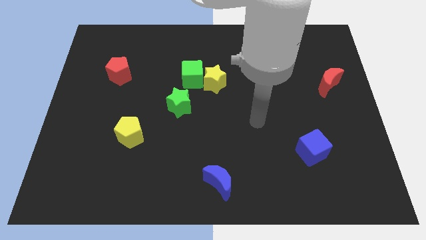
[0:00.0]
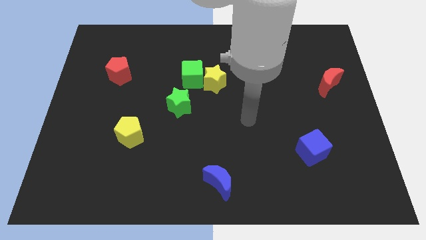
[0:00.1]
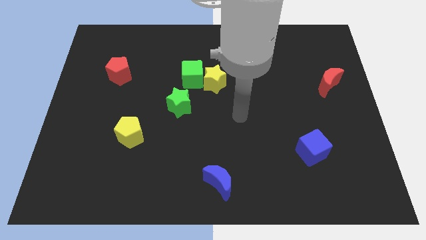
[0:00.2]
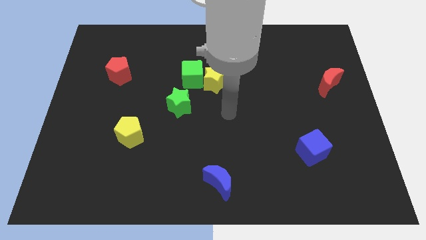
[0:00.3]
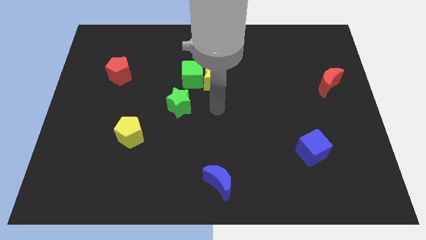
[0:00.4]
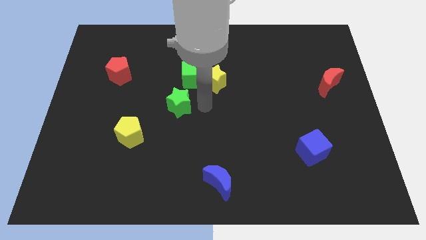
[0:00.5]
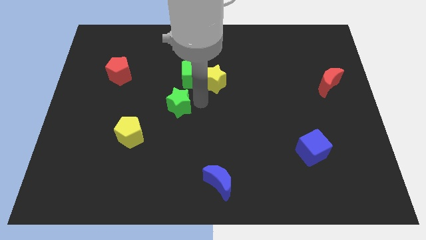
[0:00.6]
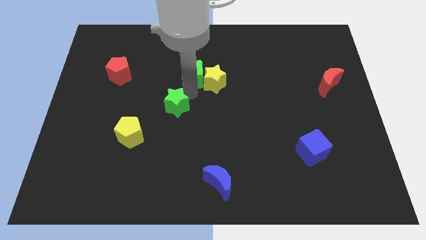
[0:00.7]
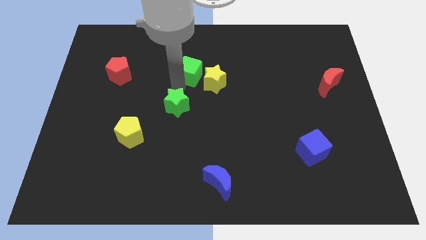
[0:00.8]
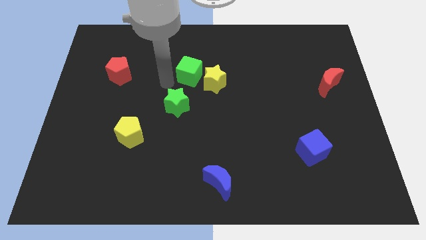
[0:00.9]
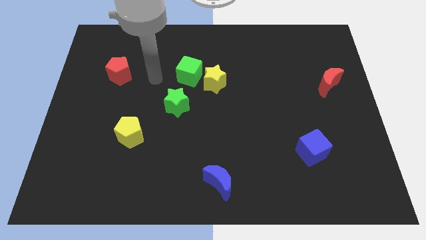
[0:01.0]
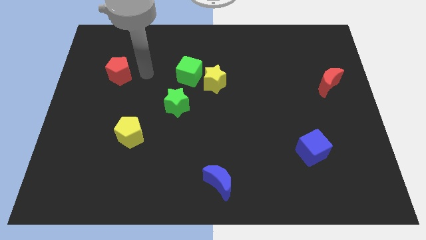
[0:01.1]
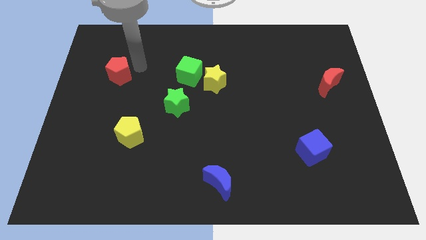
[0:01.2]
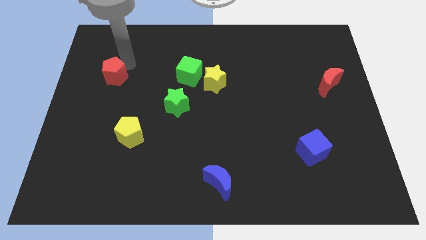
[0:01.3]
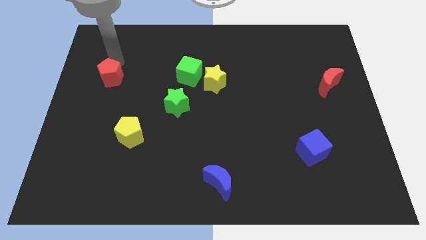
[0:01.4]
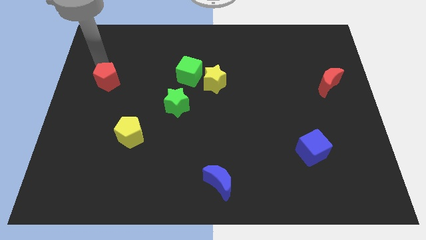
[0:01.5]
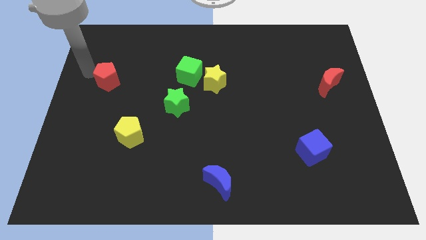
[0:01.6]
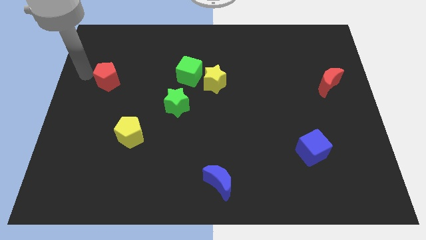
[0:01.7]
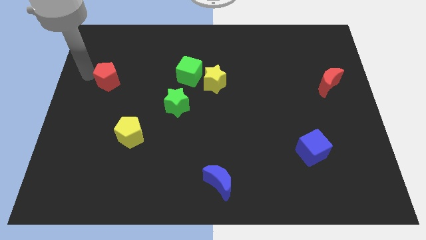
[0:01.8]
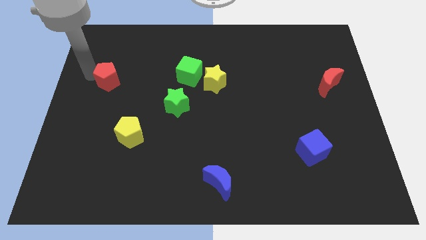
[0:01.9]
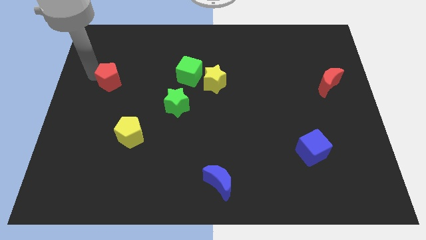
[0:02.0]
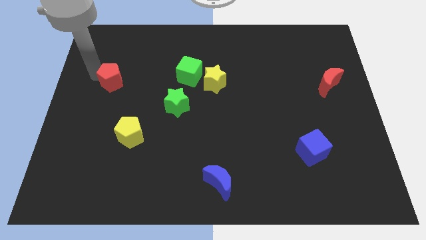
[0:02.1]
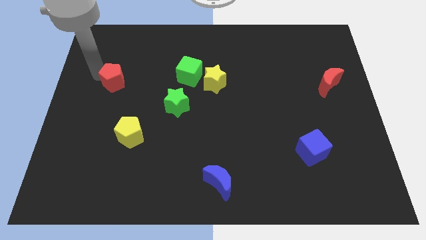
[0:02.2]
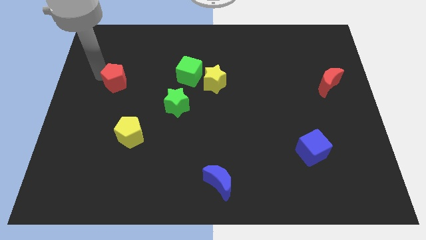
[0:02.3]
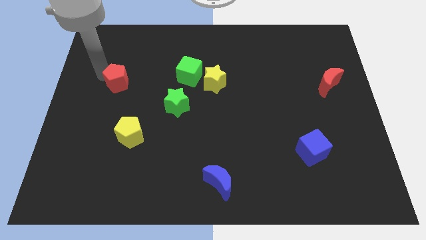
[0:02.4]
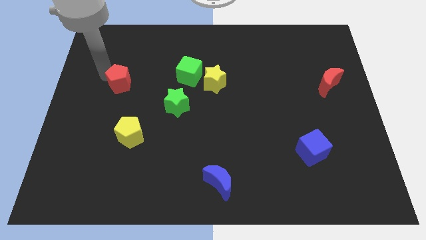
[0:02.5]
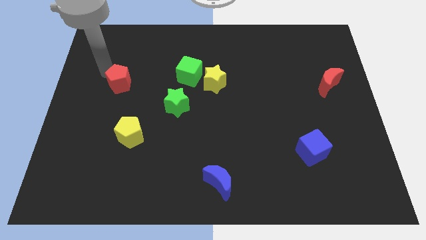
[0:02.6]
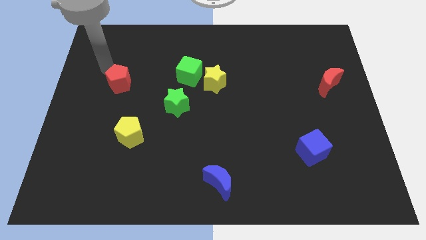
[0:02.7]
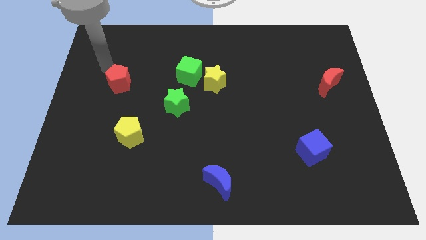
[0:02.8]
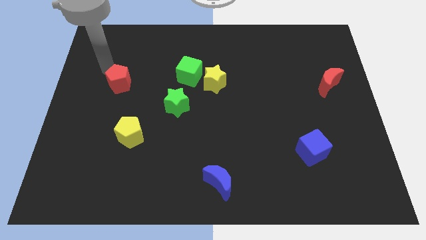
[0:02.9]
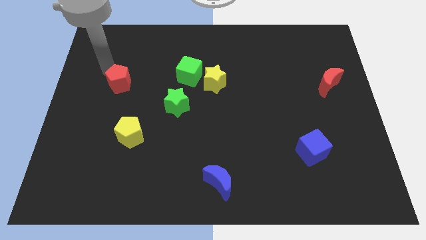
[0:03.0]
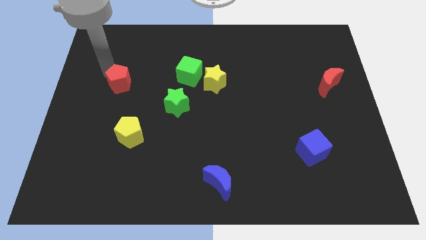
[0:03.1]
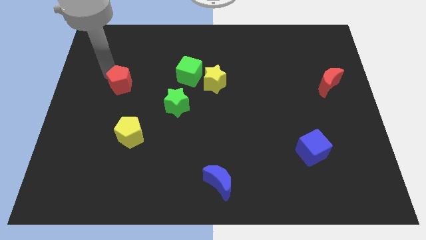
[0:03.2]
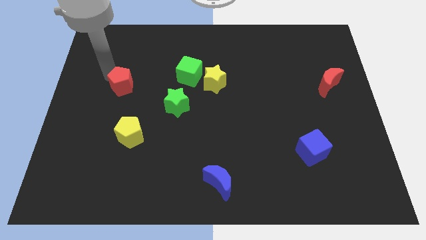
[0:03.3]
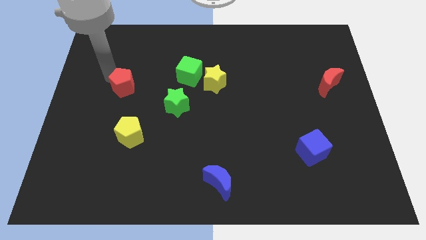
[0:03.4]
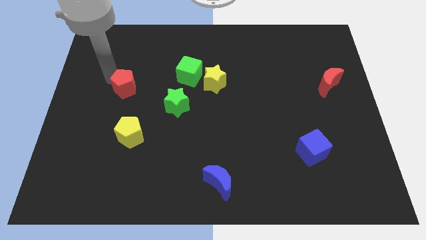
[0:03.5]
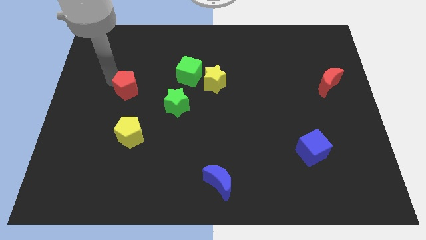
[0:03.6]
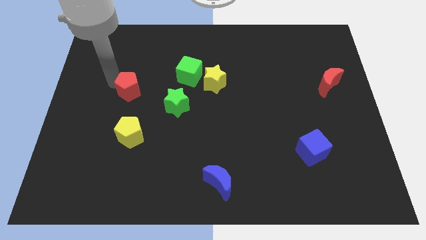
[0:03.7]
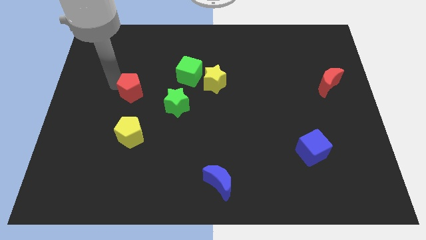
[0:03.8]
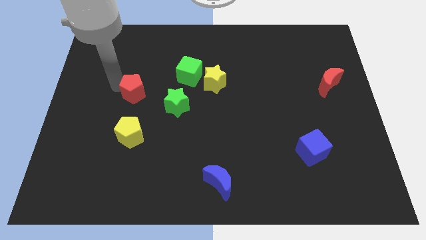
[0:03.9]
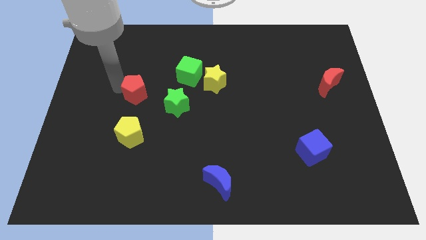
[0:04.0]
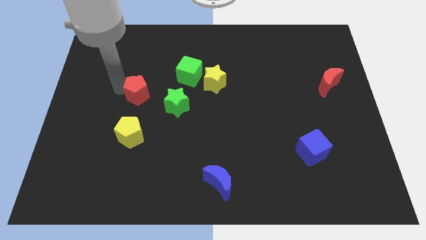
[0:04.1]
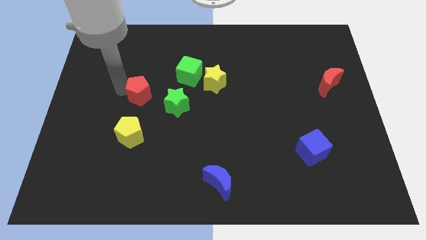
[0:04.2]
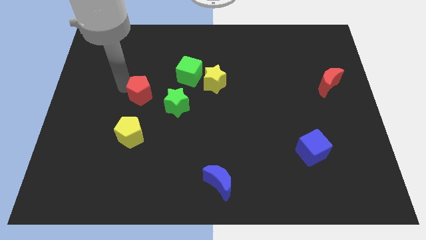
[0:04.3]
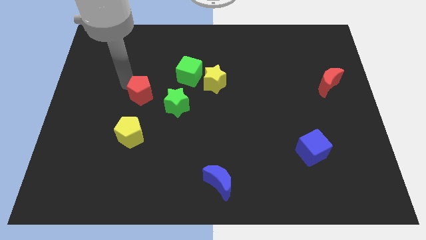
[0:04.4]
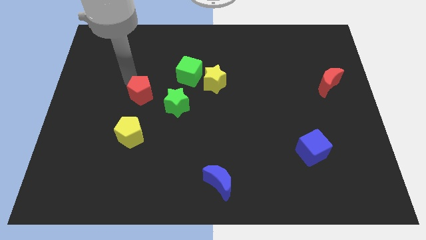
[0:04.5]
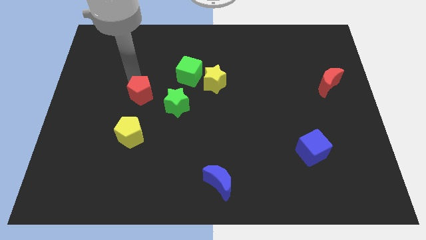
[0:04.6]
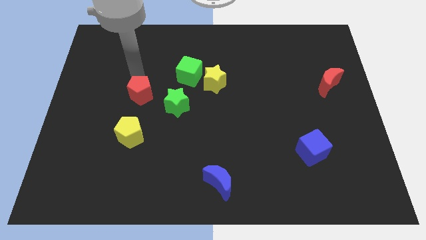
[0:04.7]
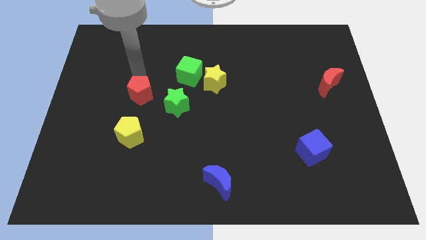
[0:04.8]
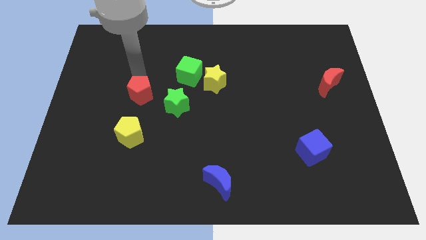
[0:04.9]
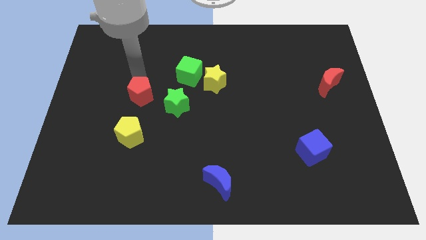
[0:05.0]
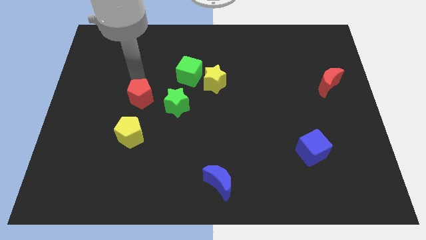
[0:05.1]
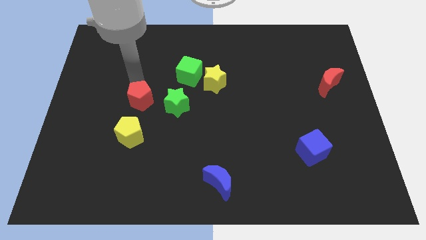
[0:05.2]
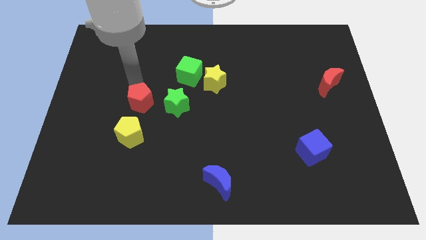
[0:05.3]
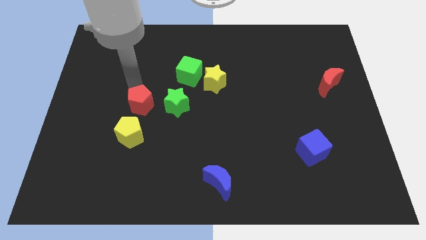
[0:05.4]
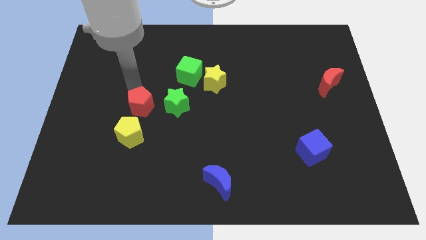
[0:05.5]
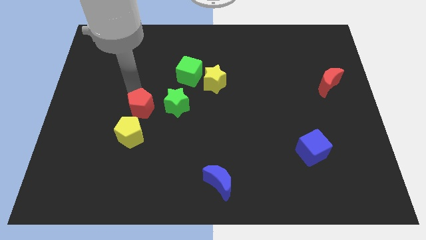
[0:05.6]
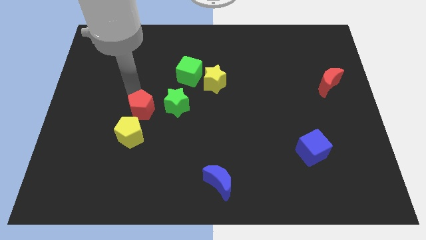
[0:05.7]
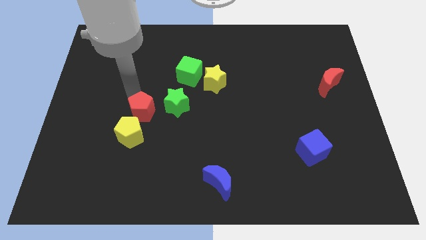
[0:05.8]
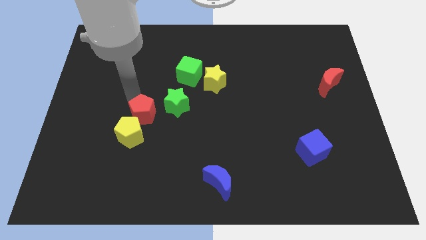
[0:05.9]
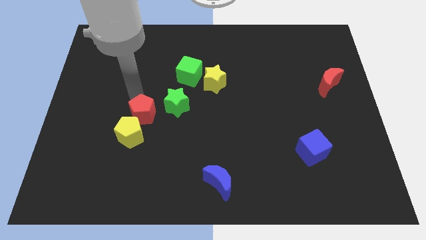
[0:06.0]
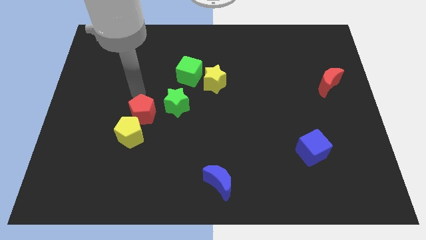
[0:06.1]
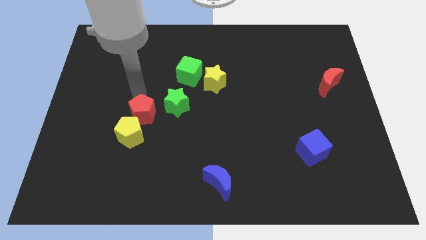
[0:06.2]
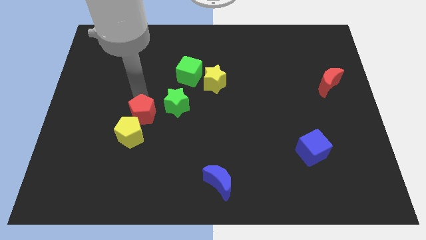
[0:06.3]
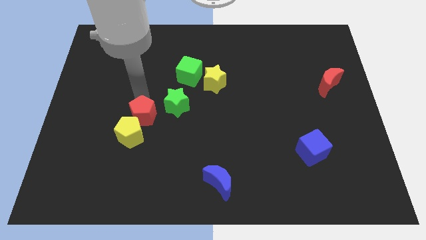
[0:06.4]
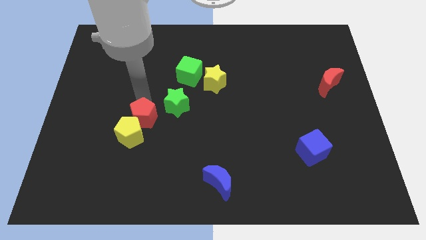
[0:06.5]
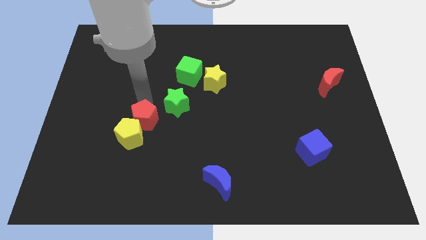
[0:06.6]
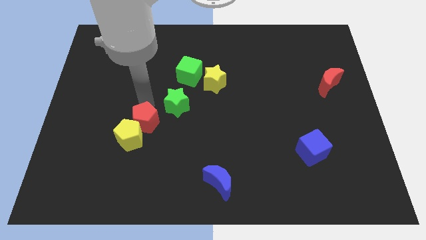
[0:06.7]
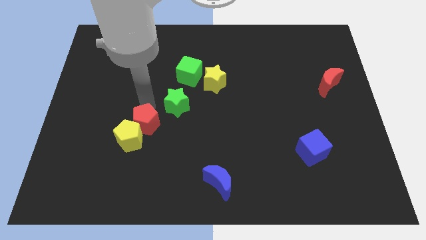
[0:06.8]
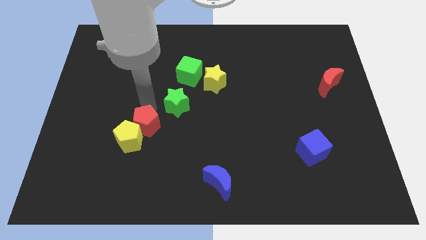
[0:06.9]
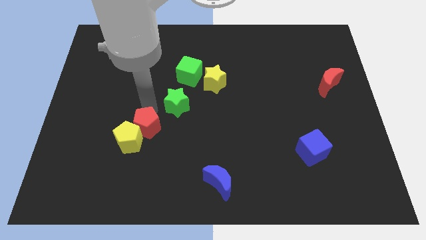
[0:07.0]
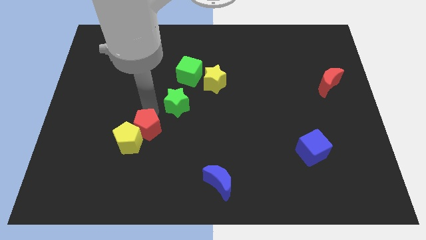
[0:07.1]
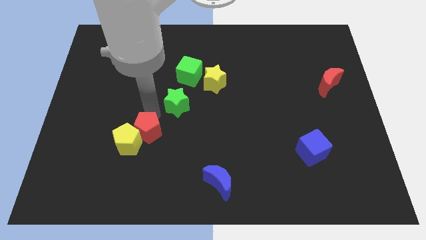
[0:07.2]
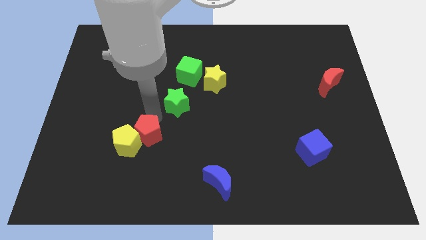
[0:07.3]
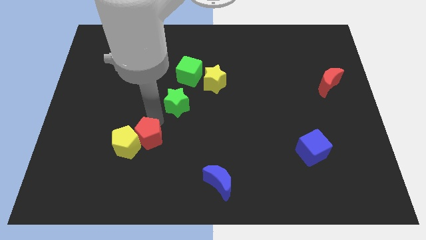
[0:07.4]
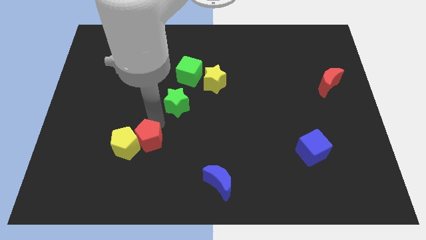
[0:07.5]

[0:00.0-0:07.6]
slide the red pentagon diagonally down and to the right of the yellow pentagon
